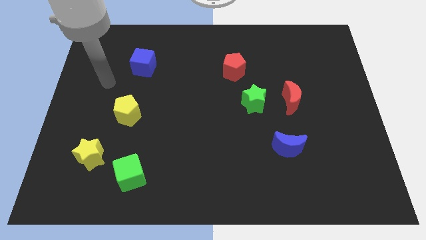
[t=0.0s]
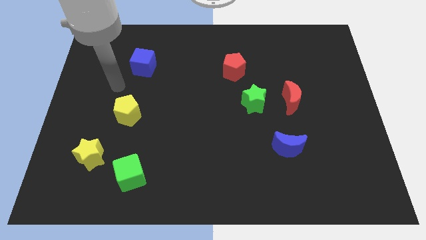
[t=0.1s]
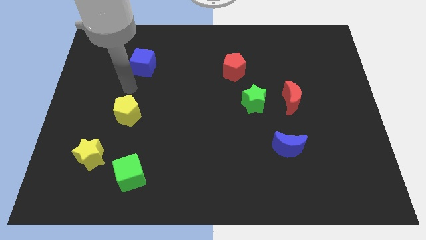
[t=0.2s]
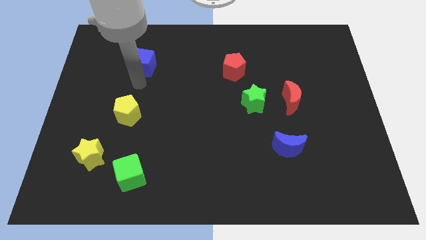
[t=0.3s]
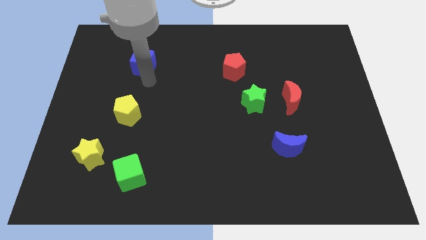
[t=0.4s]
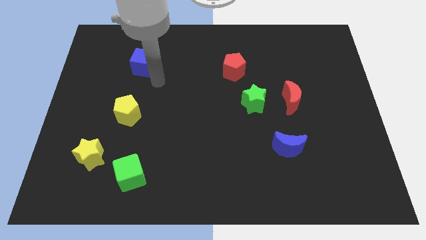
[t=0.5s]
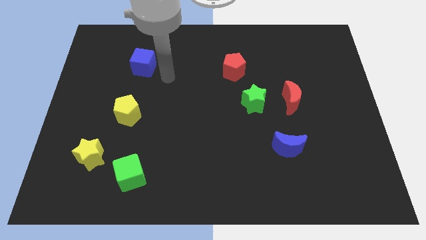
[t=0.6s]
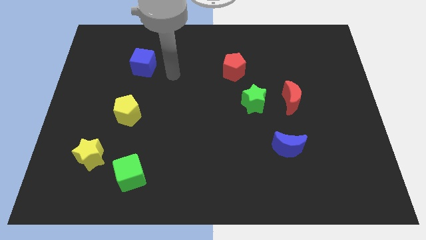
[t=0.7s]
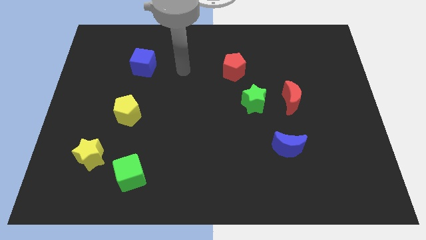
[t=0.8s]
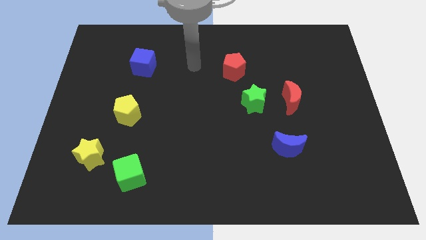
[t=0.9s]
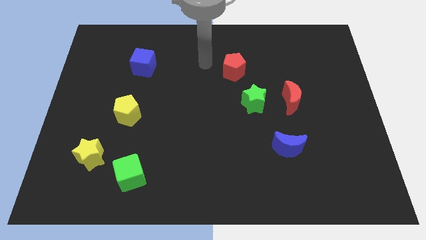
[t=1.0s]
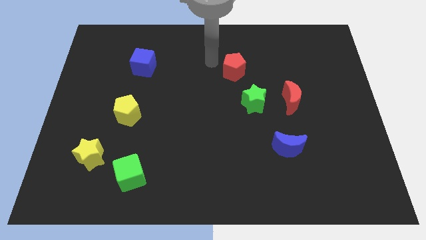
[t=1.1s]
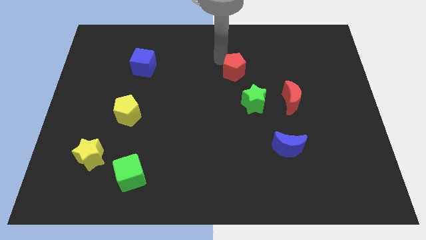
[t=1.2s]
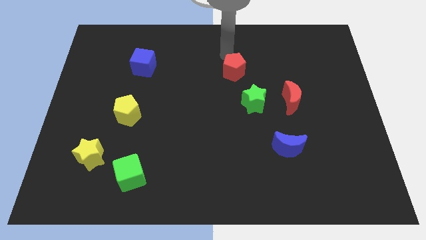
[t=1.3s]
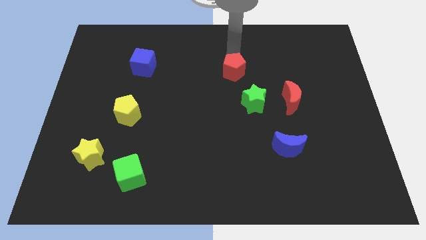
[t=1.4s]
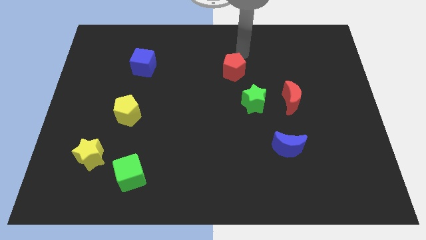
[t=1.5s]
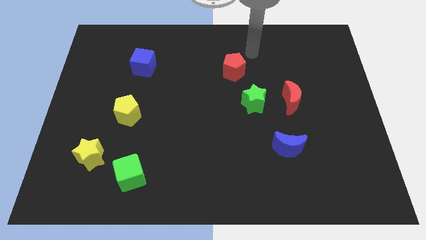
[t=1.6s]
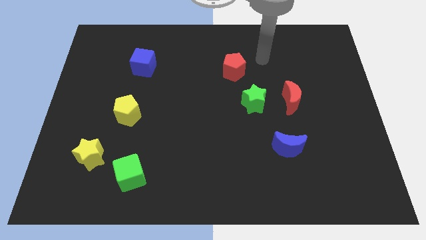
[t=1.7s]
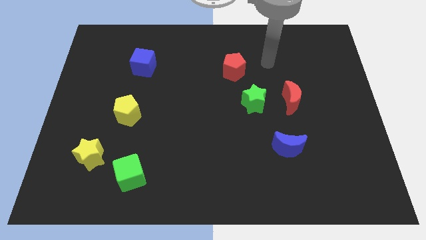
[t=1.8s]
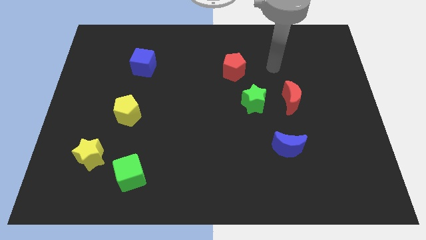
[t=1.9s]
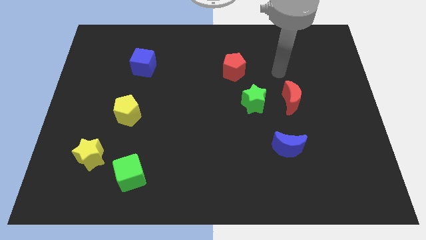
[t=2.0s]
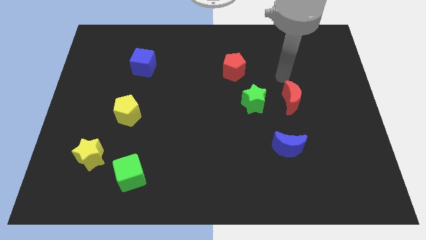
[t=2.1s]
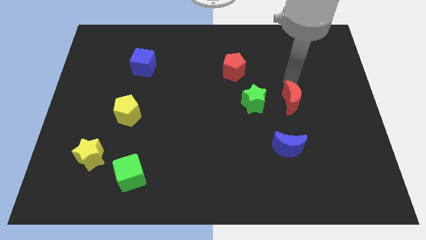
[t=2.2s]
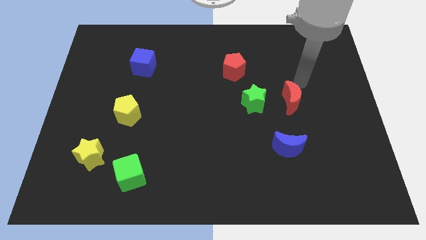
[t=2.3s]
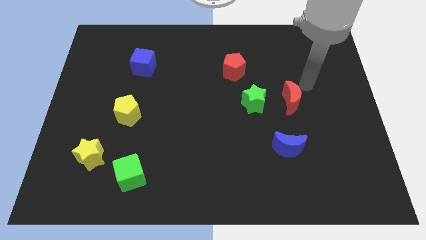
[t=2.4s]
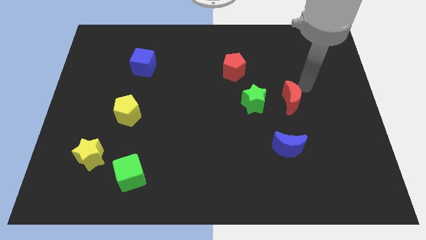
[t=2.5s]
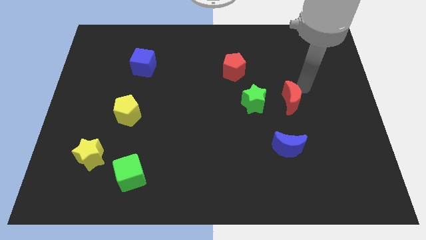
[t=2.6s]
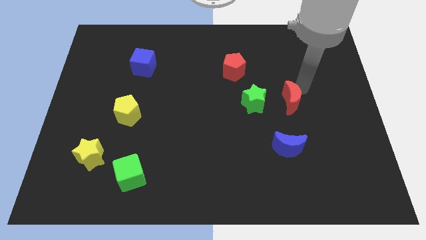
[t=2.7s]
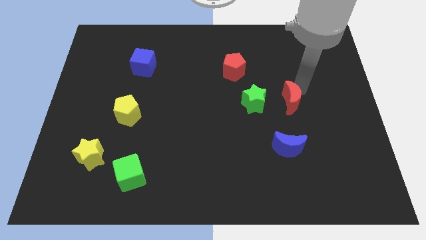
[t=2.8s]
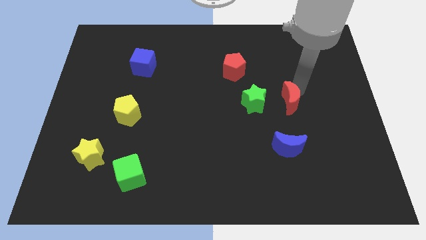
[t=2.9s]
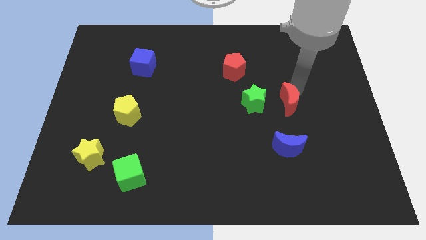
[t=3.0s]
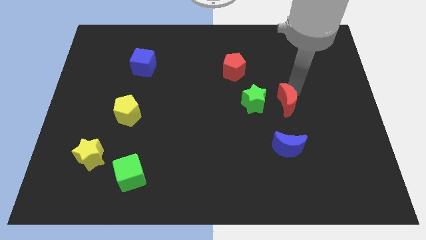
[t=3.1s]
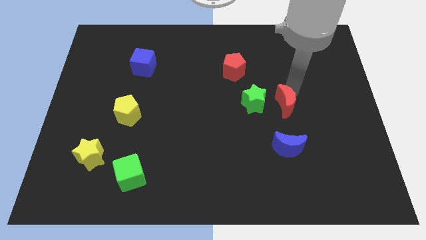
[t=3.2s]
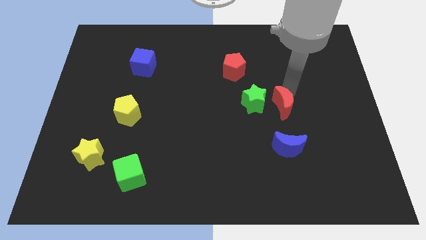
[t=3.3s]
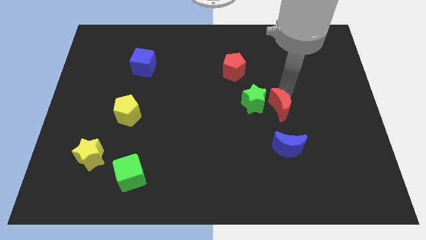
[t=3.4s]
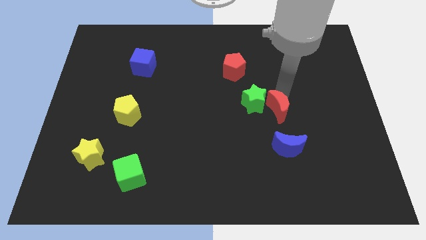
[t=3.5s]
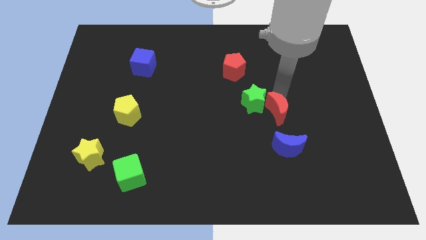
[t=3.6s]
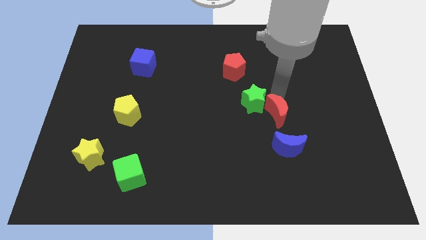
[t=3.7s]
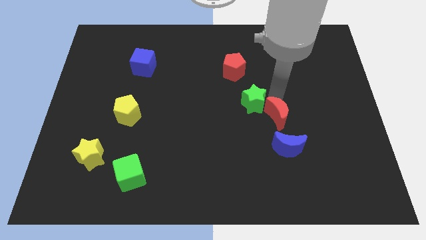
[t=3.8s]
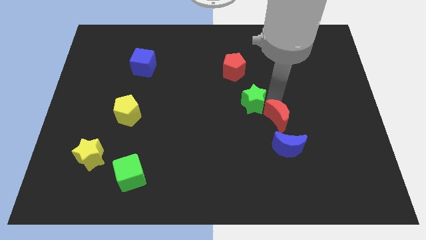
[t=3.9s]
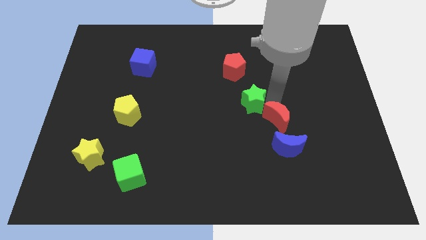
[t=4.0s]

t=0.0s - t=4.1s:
push the red moon a little down and left diagonally

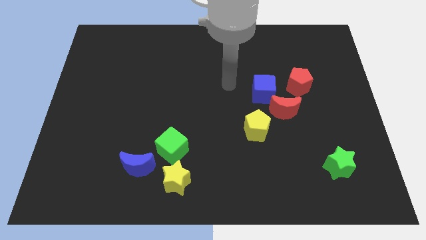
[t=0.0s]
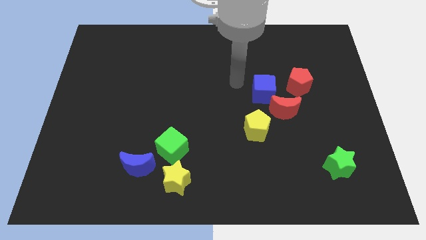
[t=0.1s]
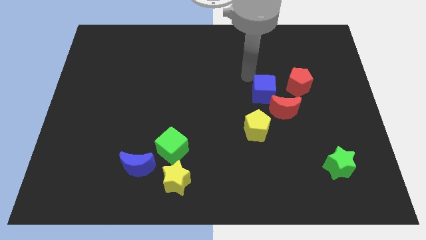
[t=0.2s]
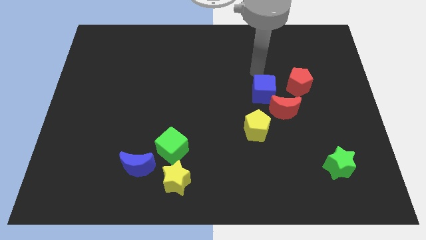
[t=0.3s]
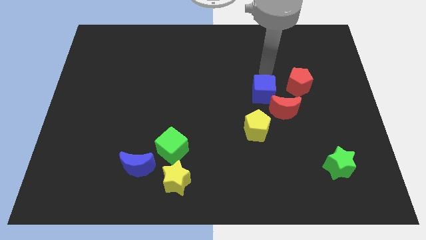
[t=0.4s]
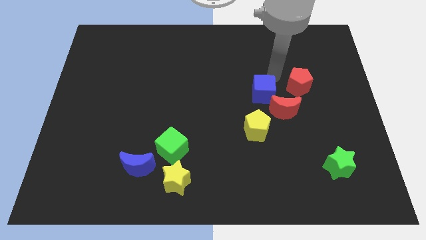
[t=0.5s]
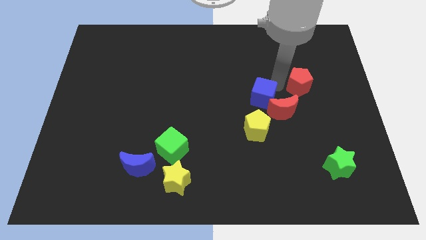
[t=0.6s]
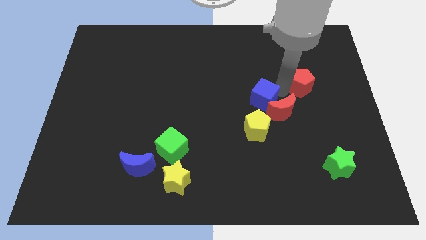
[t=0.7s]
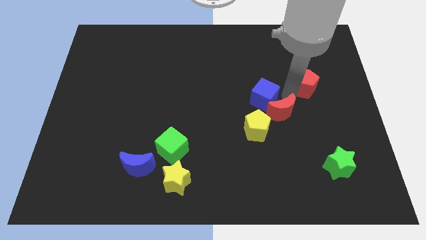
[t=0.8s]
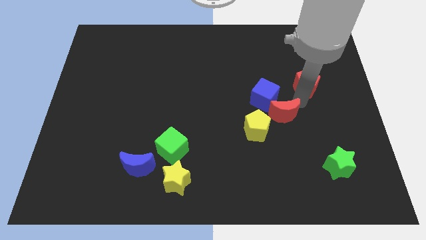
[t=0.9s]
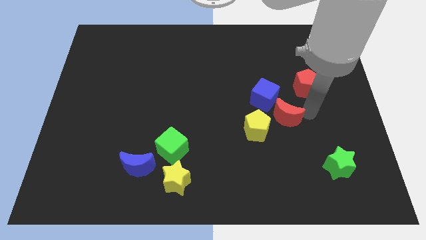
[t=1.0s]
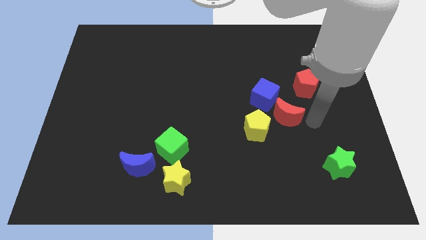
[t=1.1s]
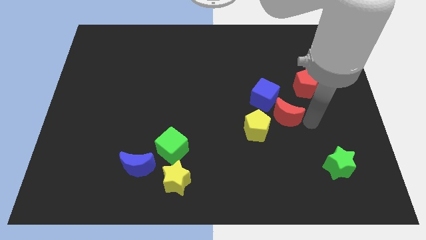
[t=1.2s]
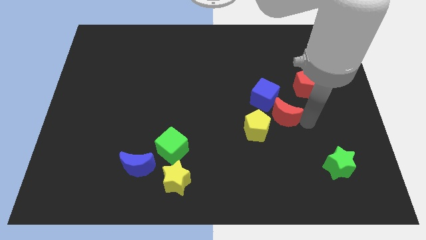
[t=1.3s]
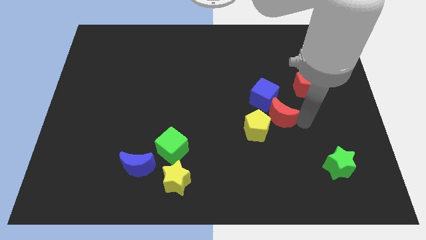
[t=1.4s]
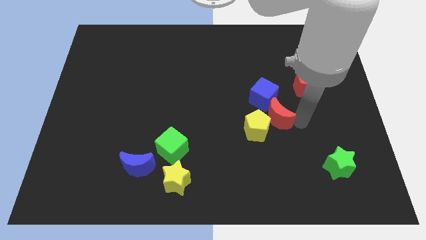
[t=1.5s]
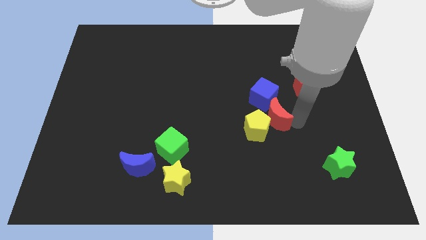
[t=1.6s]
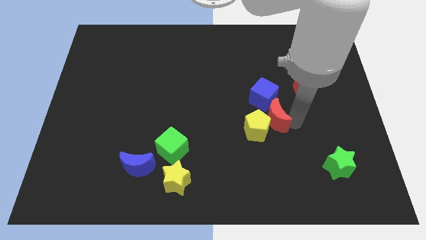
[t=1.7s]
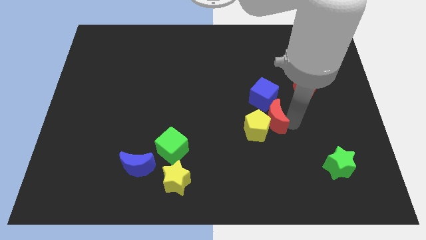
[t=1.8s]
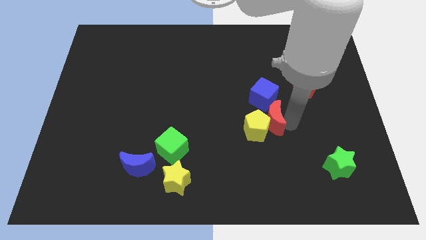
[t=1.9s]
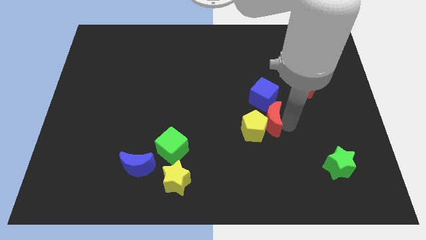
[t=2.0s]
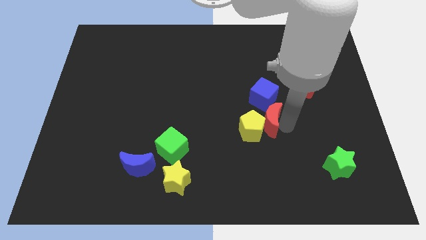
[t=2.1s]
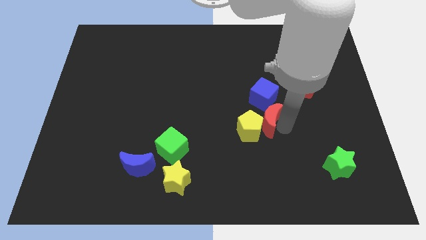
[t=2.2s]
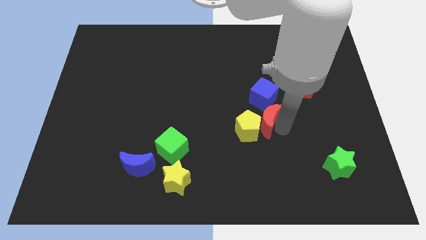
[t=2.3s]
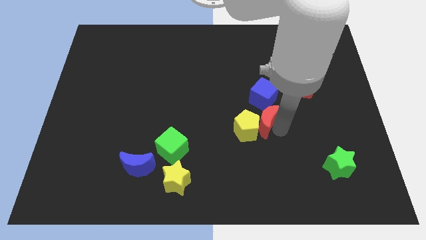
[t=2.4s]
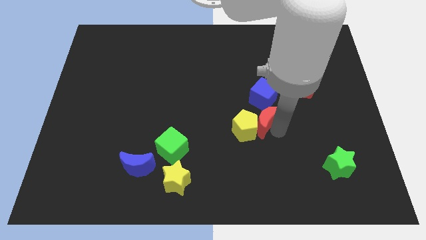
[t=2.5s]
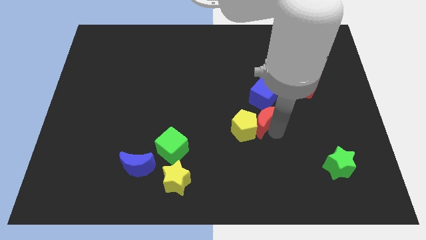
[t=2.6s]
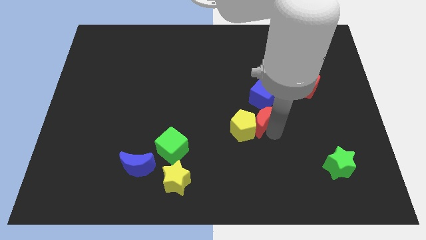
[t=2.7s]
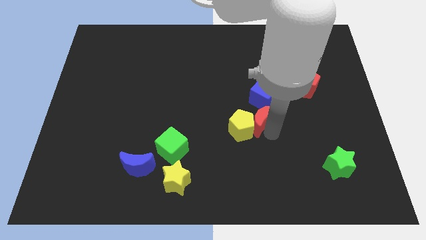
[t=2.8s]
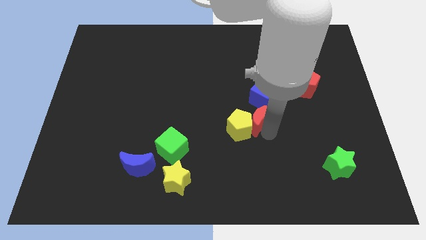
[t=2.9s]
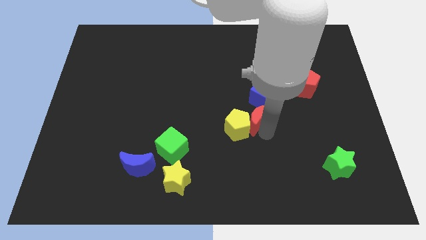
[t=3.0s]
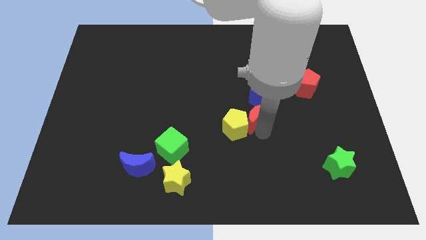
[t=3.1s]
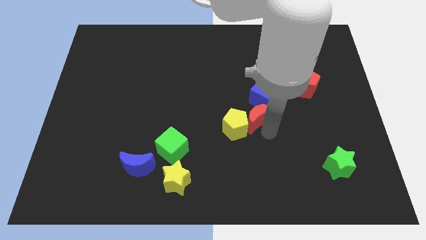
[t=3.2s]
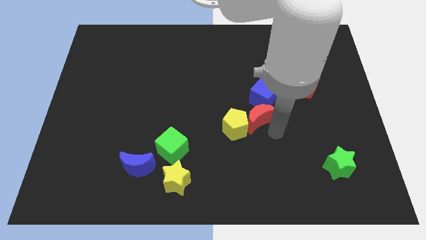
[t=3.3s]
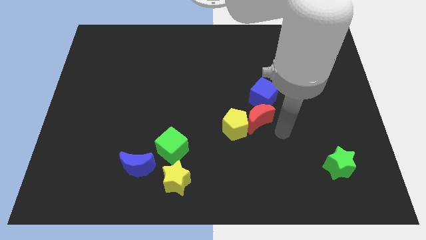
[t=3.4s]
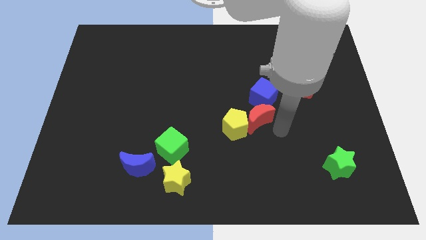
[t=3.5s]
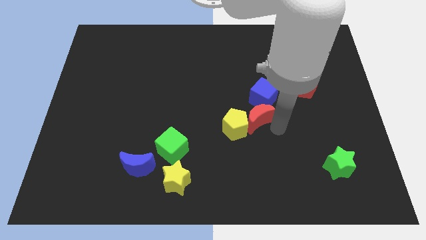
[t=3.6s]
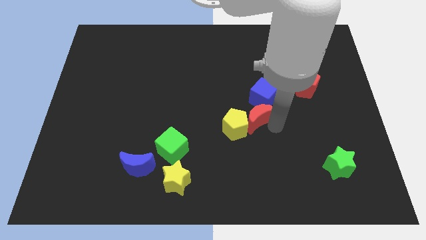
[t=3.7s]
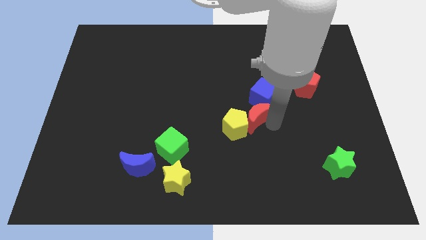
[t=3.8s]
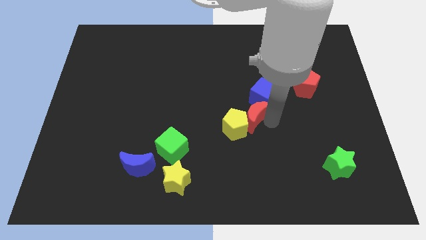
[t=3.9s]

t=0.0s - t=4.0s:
slightly push the red moon to the left

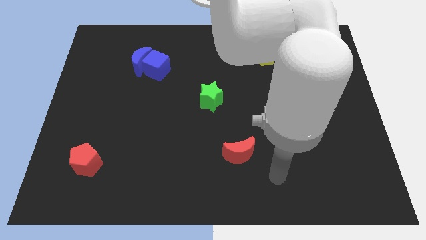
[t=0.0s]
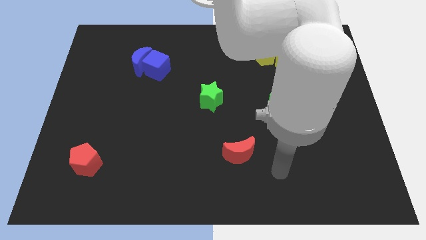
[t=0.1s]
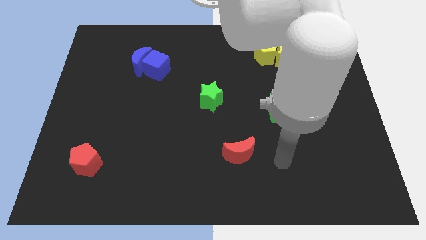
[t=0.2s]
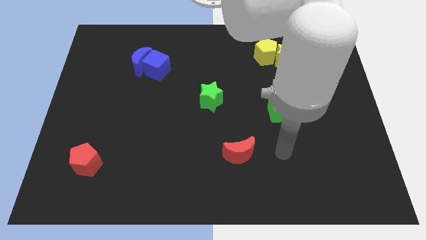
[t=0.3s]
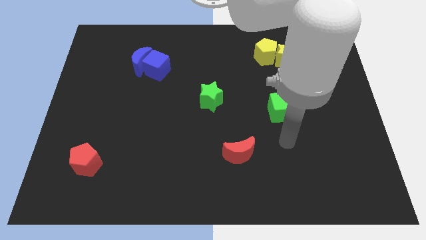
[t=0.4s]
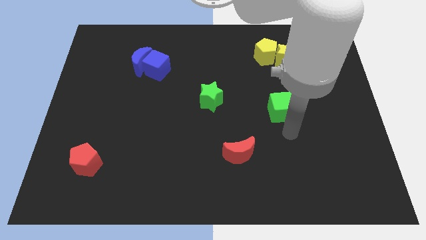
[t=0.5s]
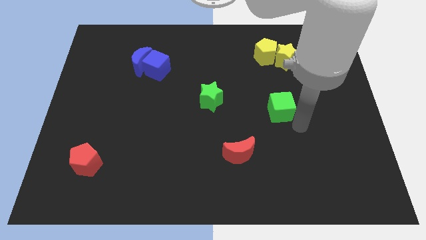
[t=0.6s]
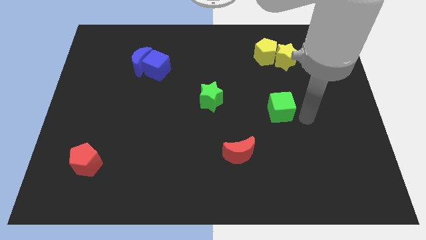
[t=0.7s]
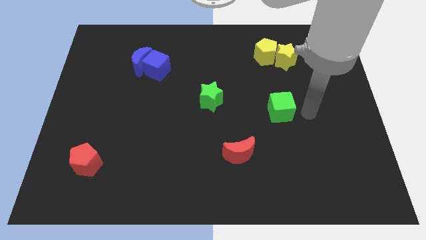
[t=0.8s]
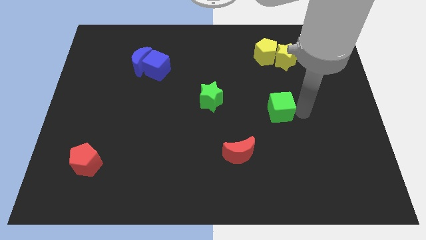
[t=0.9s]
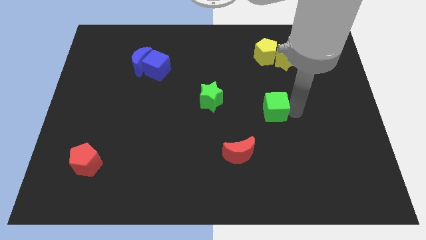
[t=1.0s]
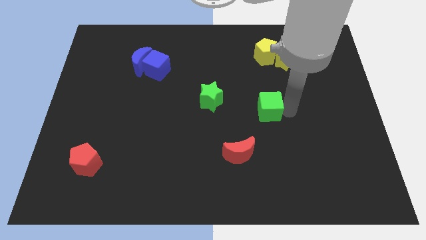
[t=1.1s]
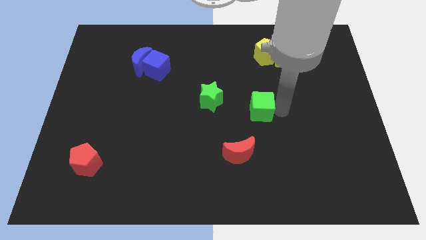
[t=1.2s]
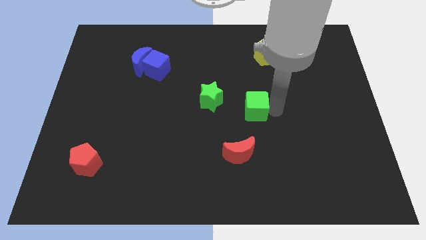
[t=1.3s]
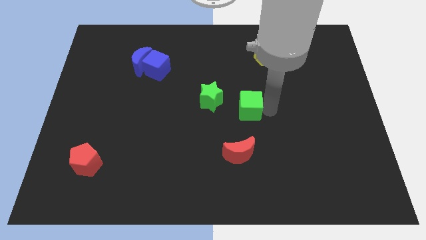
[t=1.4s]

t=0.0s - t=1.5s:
move the green cube left somewhat
